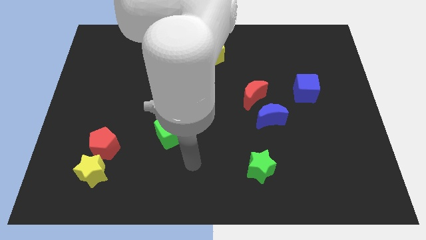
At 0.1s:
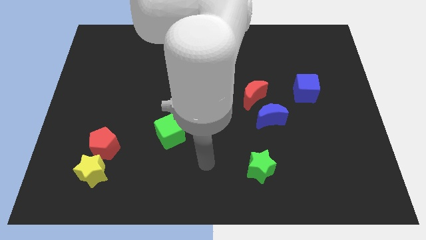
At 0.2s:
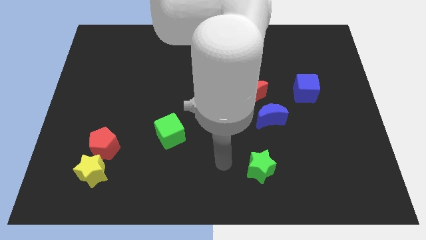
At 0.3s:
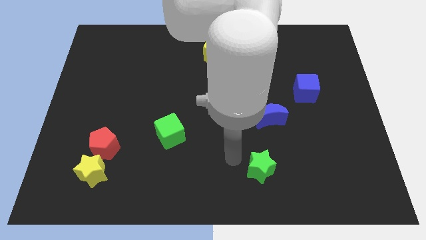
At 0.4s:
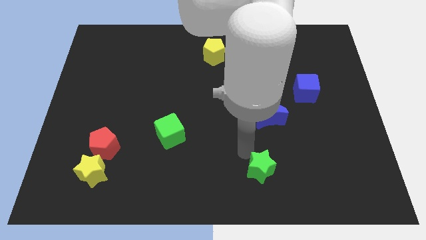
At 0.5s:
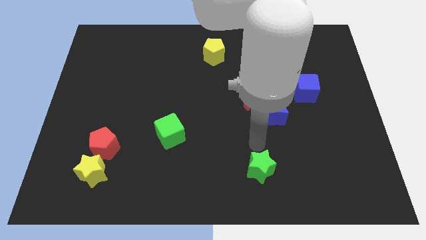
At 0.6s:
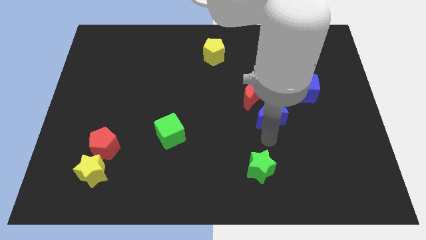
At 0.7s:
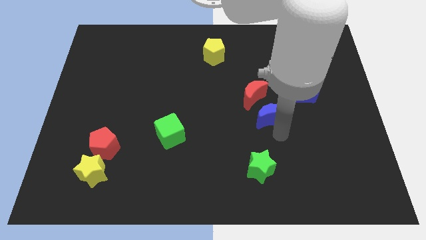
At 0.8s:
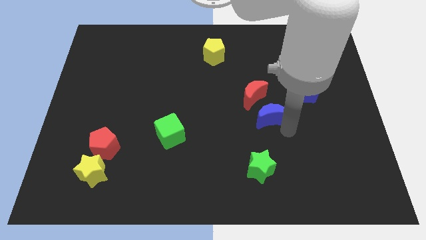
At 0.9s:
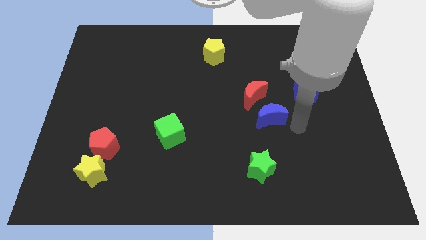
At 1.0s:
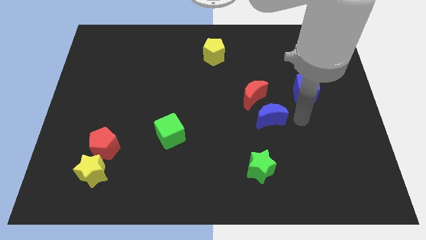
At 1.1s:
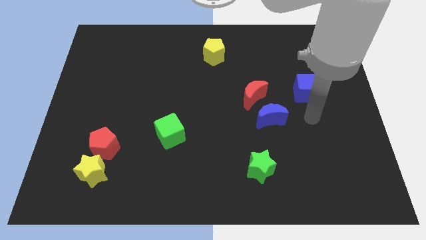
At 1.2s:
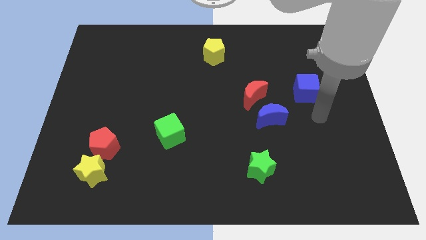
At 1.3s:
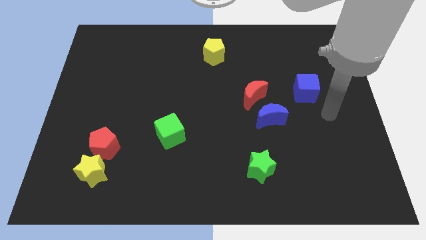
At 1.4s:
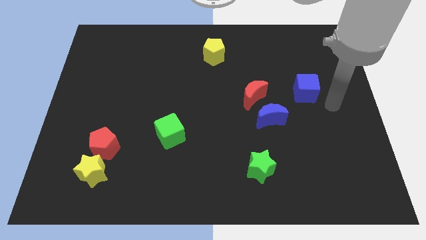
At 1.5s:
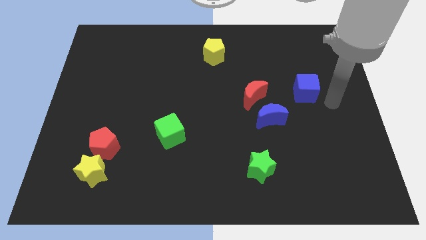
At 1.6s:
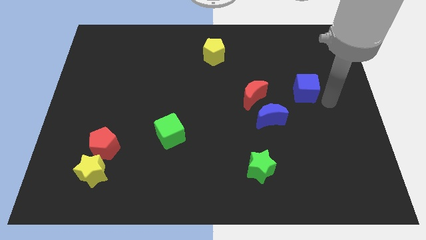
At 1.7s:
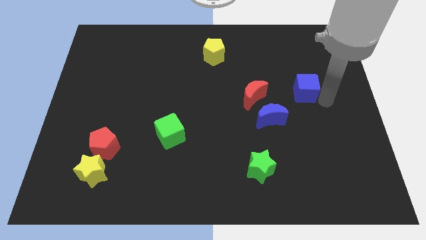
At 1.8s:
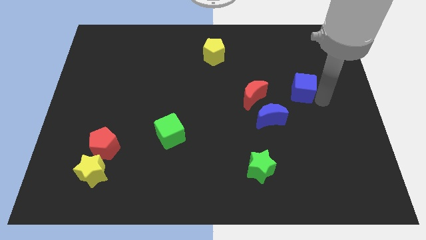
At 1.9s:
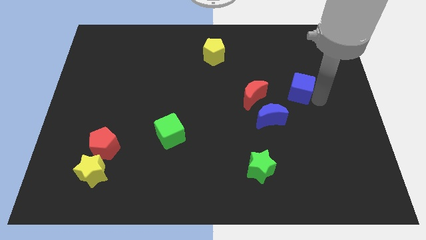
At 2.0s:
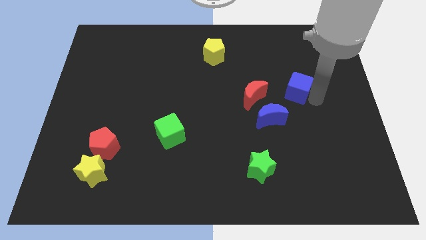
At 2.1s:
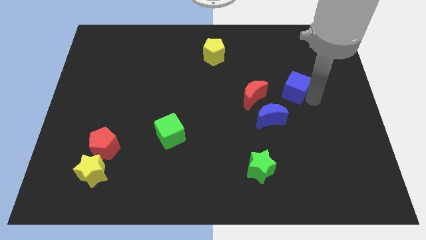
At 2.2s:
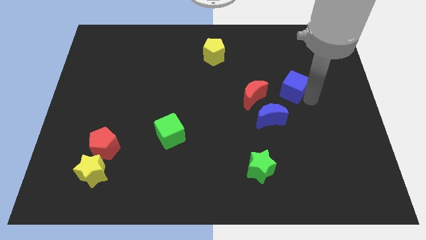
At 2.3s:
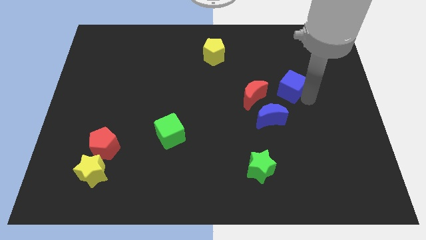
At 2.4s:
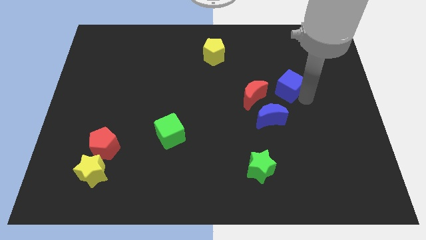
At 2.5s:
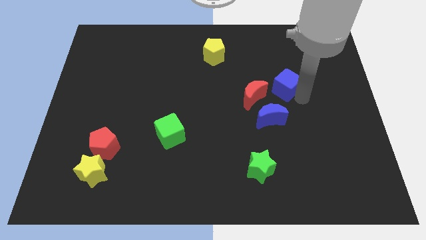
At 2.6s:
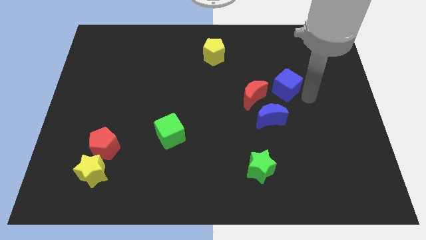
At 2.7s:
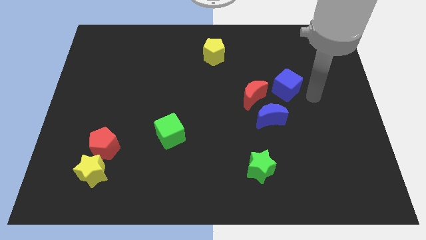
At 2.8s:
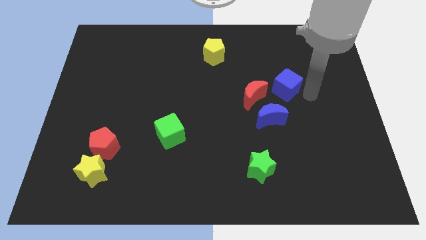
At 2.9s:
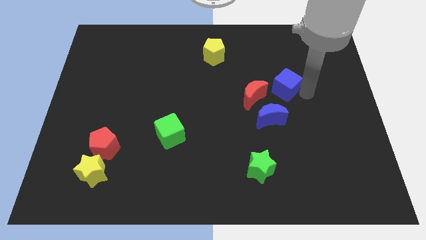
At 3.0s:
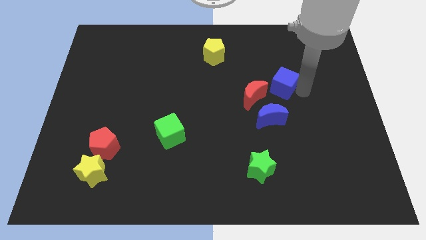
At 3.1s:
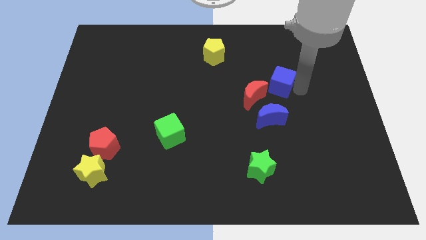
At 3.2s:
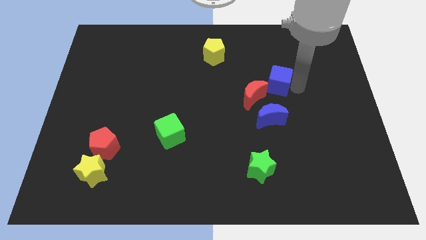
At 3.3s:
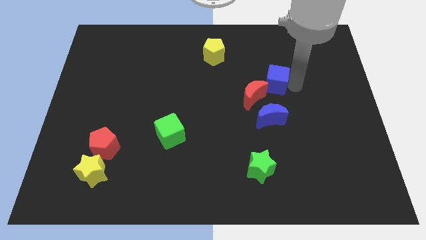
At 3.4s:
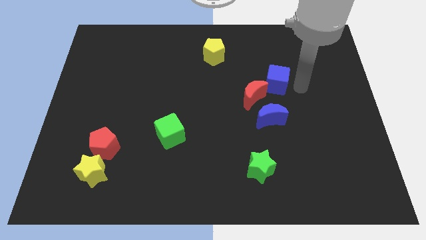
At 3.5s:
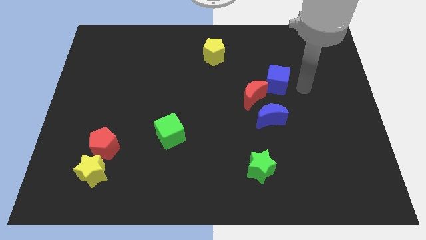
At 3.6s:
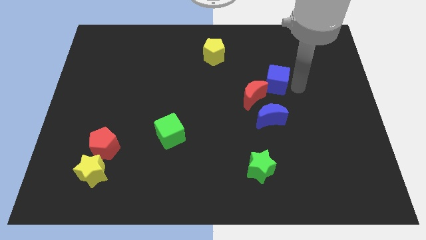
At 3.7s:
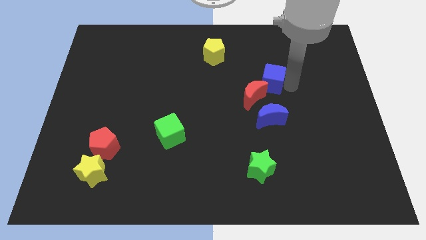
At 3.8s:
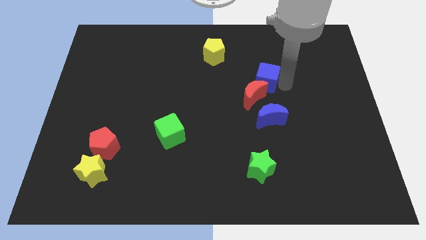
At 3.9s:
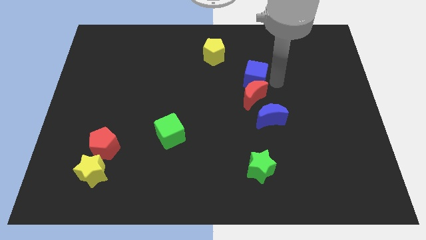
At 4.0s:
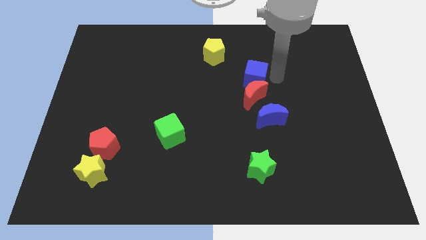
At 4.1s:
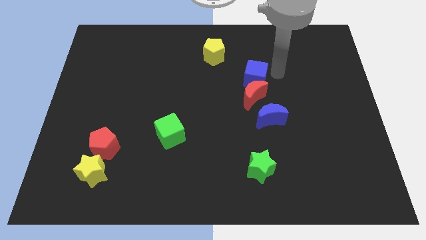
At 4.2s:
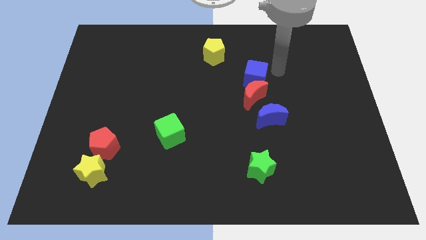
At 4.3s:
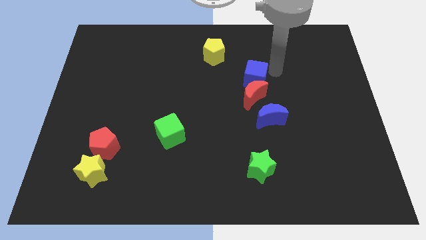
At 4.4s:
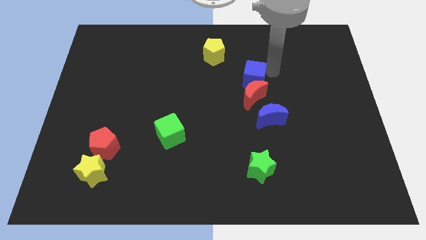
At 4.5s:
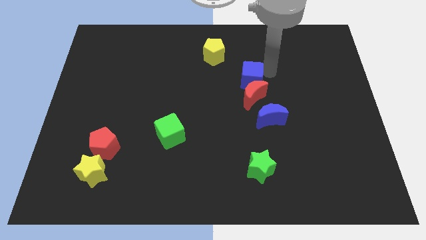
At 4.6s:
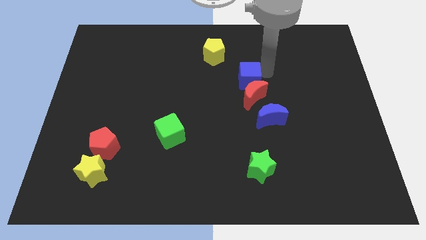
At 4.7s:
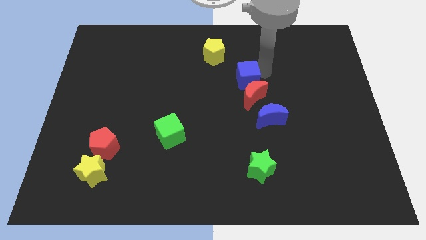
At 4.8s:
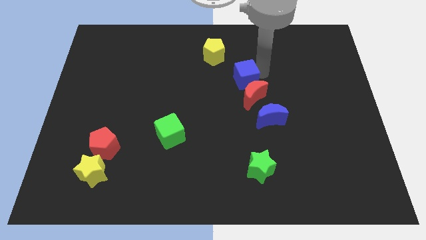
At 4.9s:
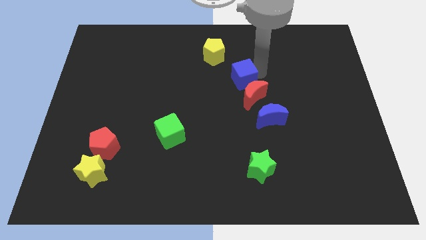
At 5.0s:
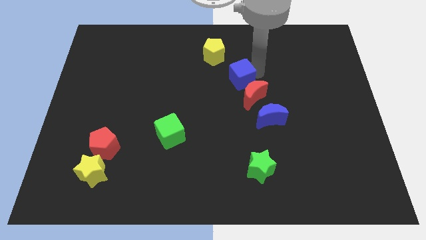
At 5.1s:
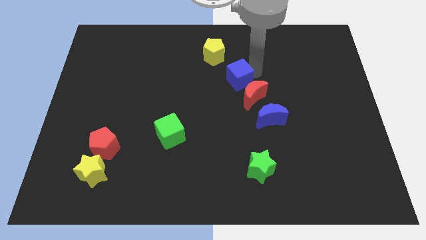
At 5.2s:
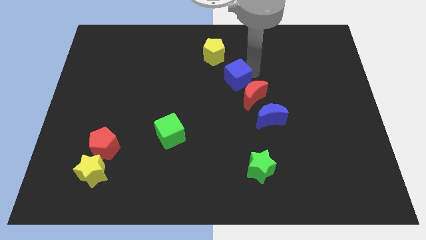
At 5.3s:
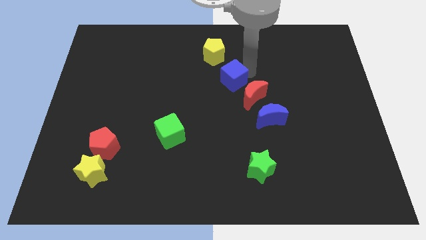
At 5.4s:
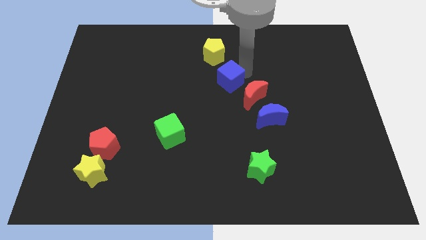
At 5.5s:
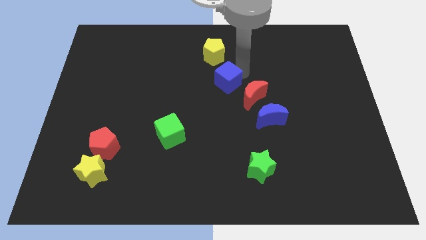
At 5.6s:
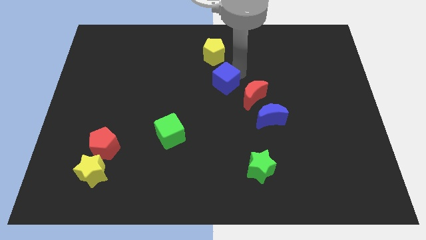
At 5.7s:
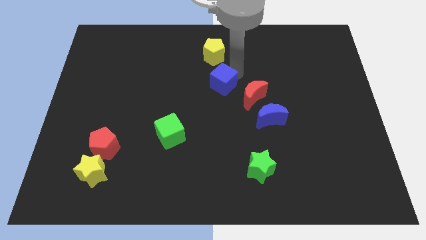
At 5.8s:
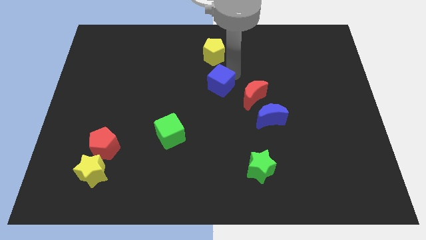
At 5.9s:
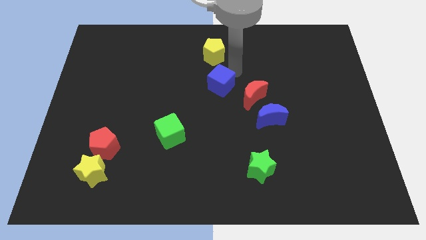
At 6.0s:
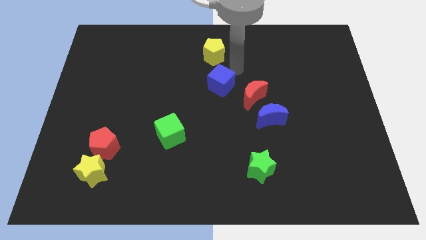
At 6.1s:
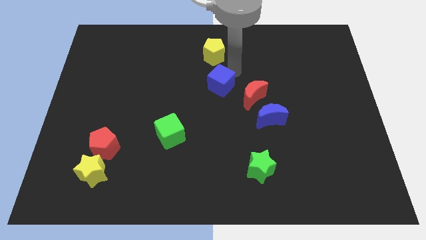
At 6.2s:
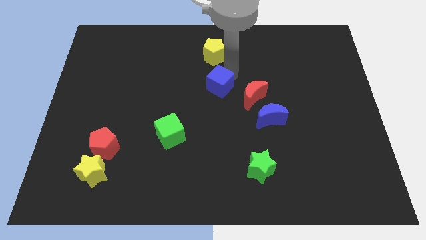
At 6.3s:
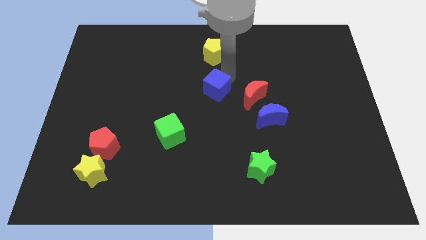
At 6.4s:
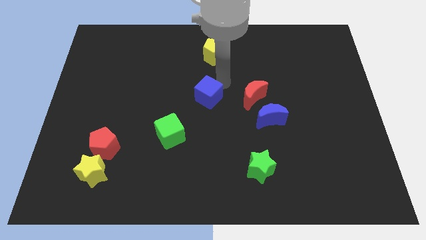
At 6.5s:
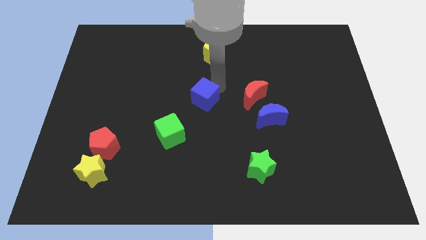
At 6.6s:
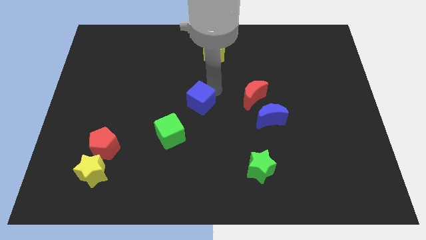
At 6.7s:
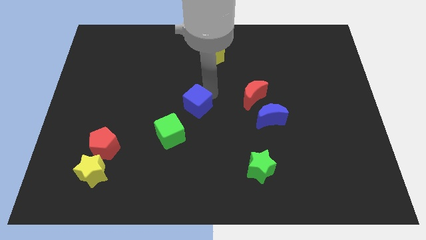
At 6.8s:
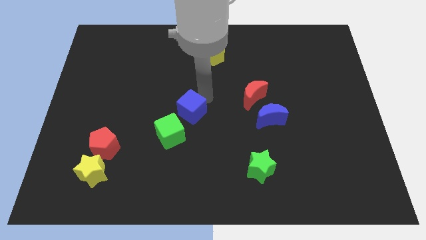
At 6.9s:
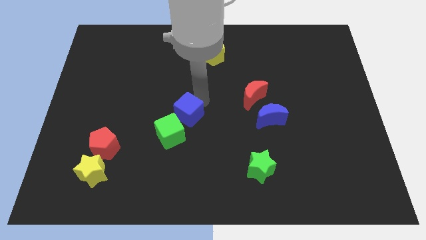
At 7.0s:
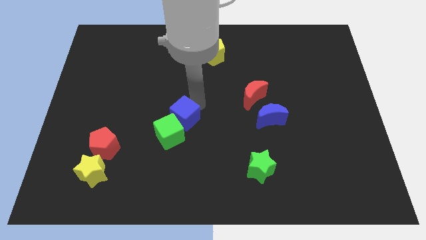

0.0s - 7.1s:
slide the blue cube next to the green cube
